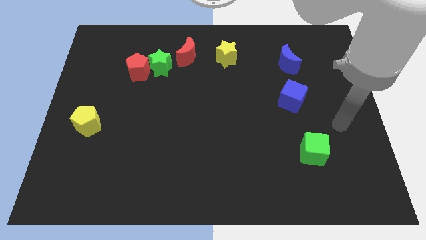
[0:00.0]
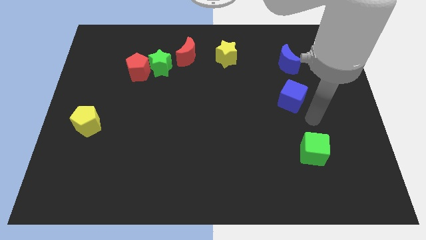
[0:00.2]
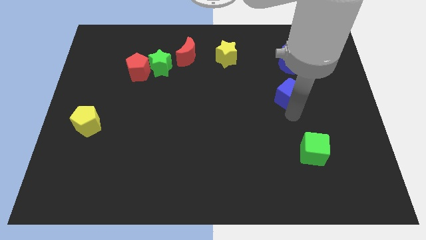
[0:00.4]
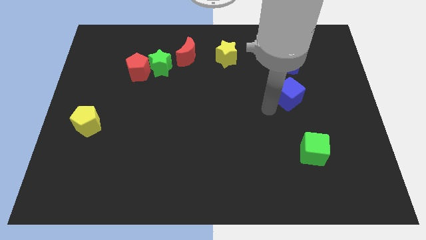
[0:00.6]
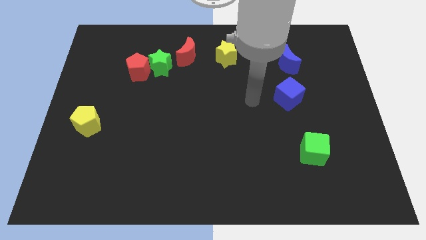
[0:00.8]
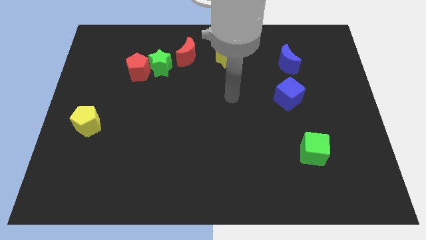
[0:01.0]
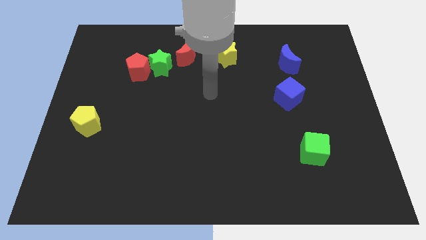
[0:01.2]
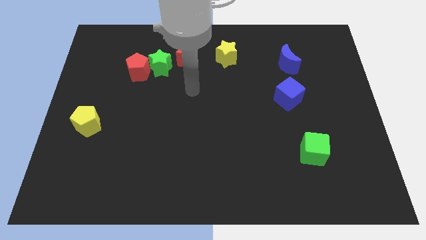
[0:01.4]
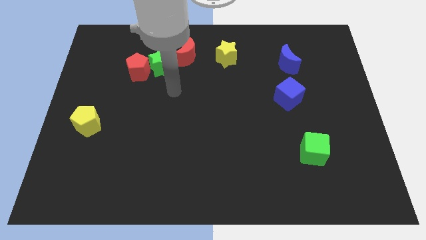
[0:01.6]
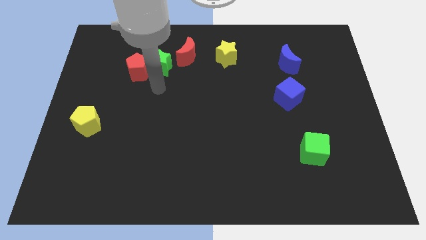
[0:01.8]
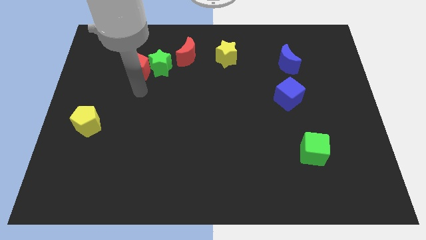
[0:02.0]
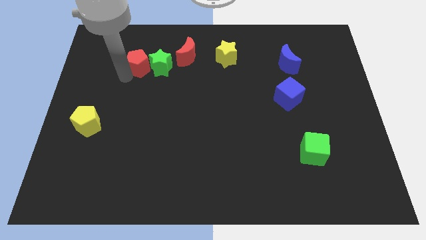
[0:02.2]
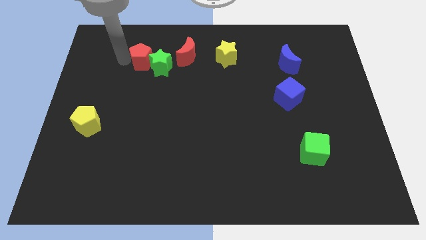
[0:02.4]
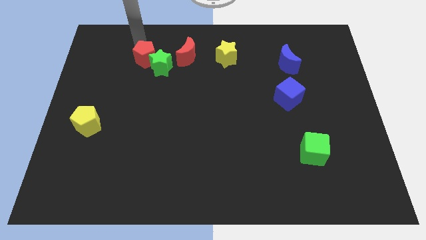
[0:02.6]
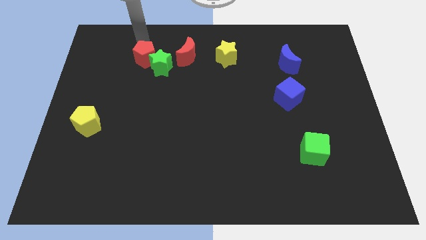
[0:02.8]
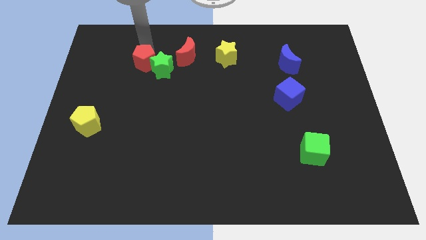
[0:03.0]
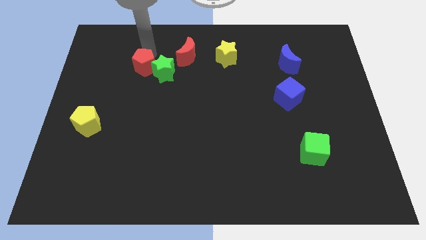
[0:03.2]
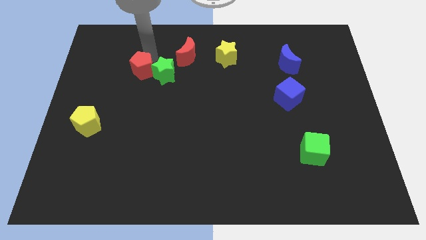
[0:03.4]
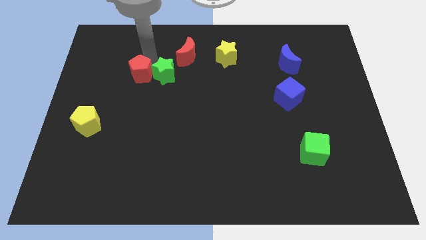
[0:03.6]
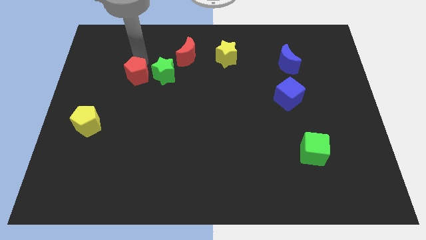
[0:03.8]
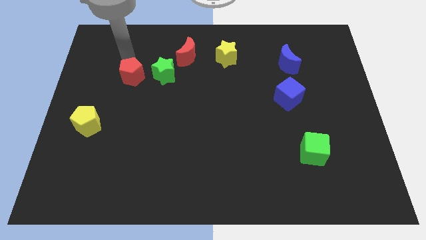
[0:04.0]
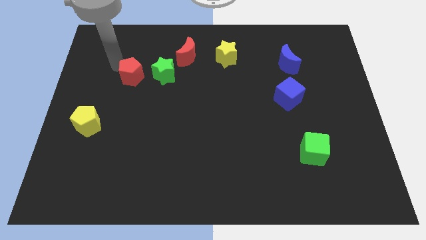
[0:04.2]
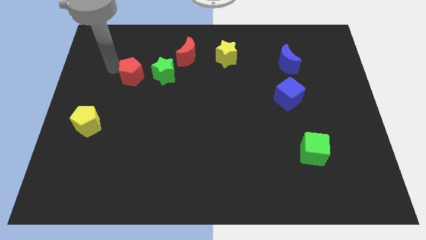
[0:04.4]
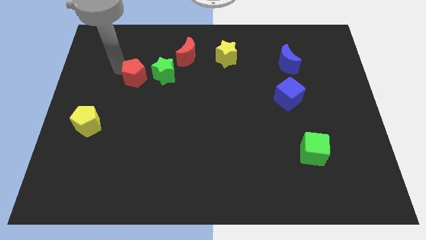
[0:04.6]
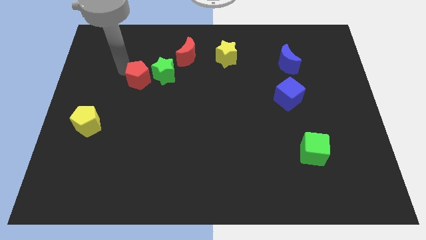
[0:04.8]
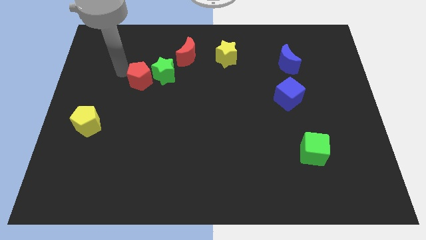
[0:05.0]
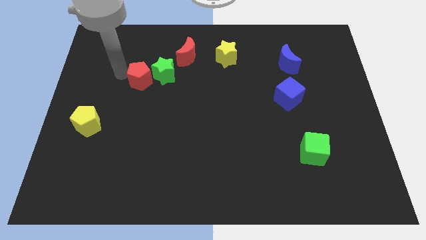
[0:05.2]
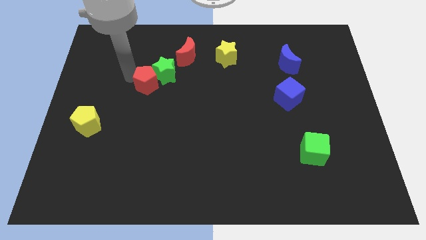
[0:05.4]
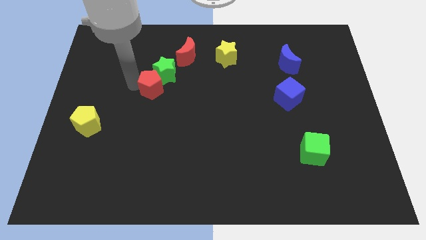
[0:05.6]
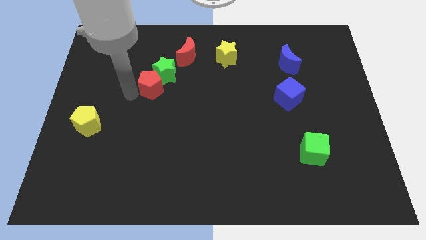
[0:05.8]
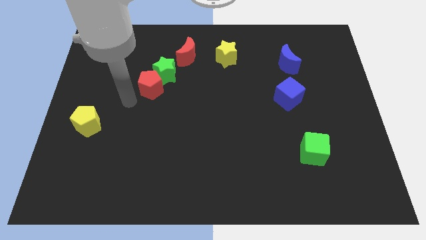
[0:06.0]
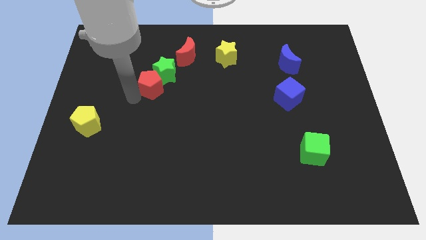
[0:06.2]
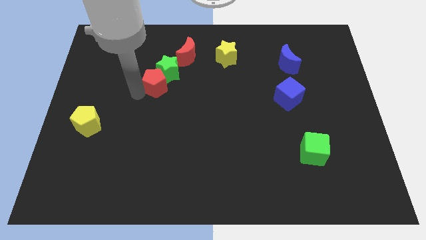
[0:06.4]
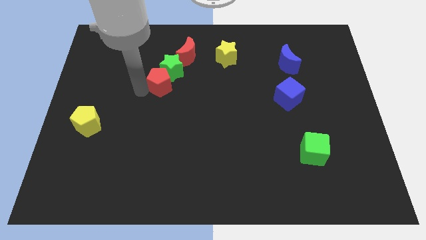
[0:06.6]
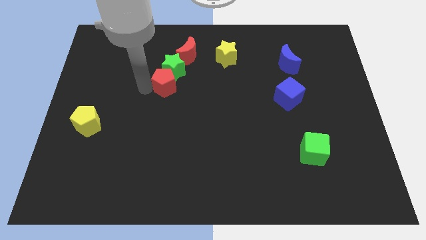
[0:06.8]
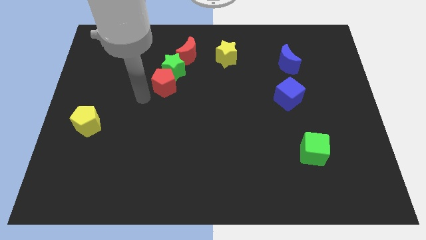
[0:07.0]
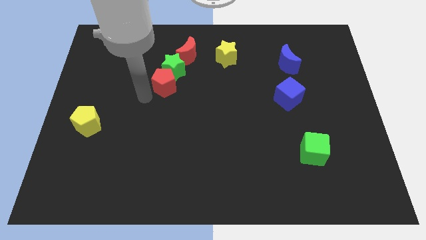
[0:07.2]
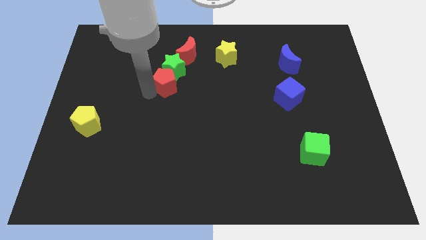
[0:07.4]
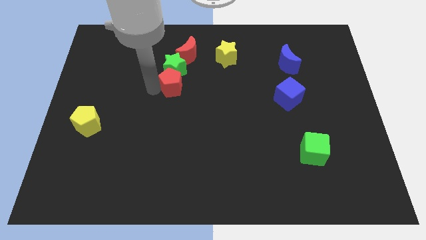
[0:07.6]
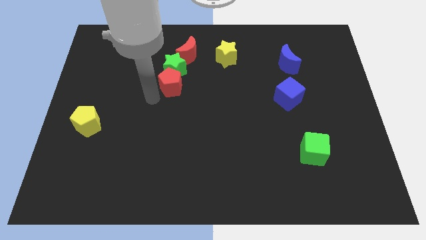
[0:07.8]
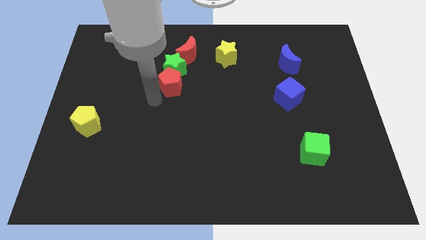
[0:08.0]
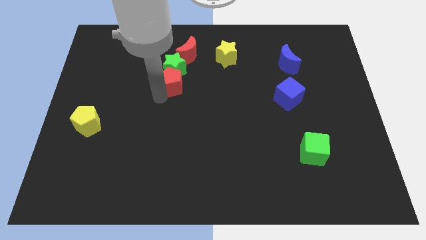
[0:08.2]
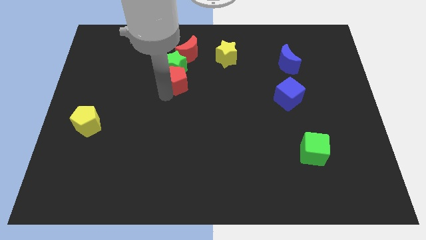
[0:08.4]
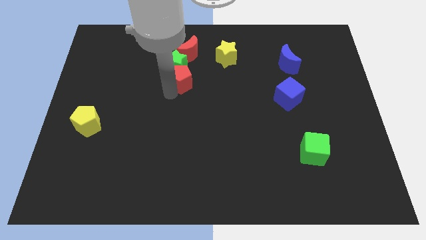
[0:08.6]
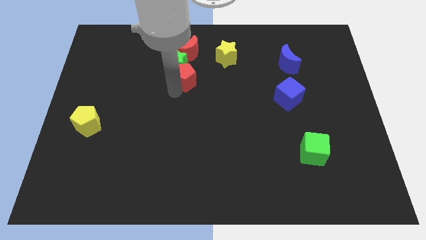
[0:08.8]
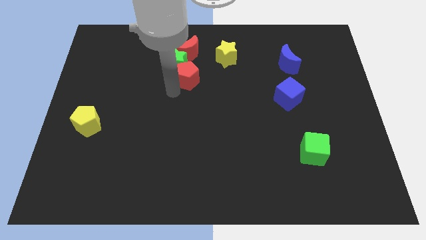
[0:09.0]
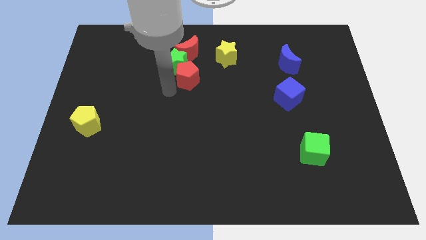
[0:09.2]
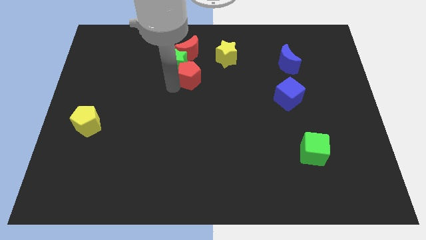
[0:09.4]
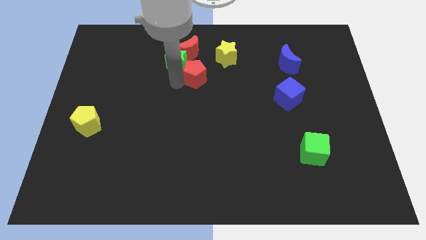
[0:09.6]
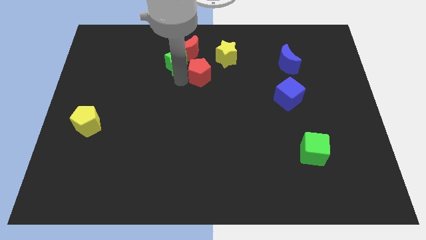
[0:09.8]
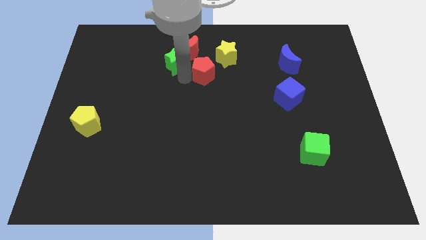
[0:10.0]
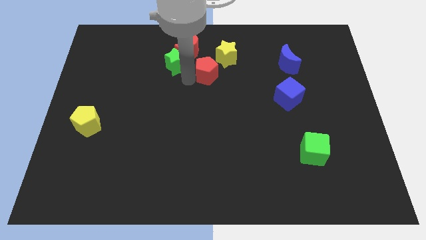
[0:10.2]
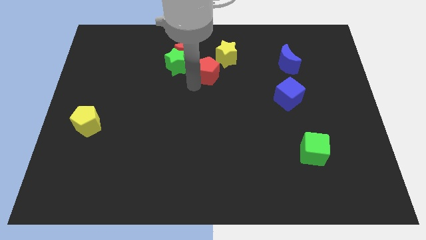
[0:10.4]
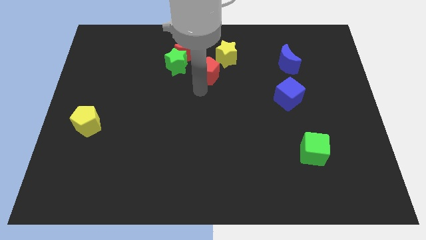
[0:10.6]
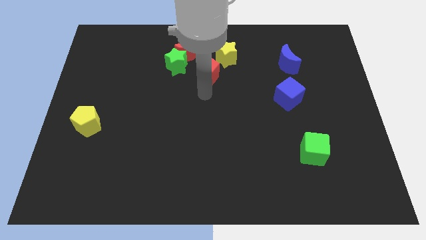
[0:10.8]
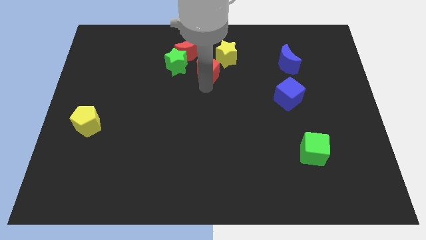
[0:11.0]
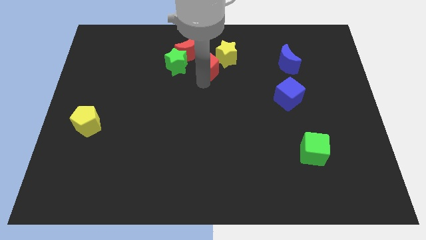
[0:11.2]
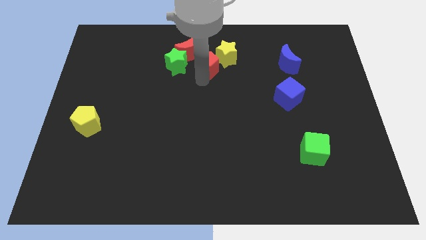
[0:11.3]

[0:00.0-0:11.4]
slide the red pentagon to the yellow star
